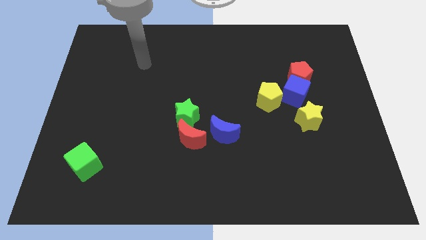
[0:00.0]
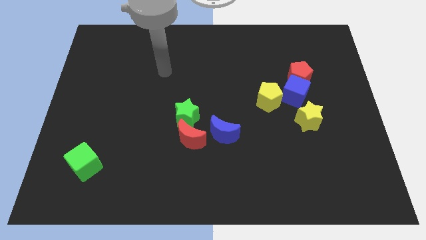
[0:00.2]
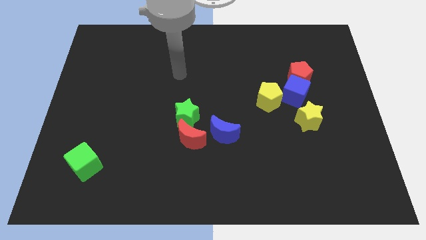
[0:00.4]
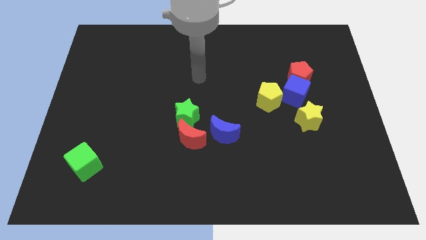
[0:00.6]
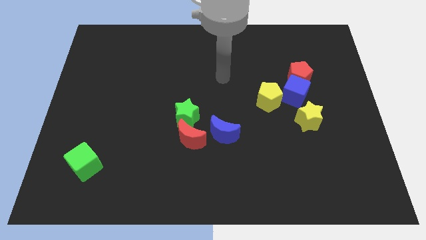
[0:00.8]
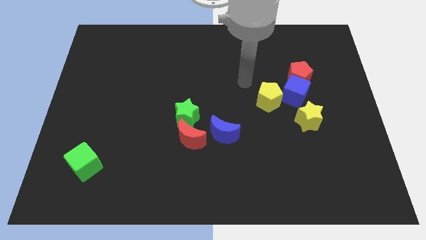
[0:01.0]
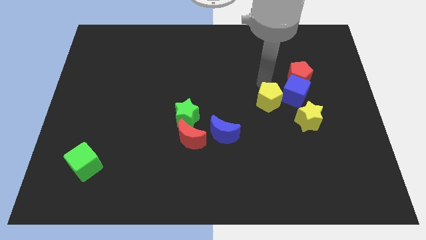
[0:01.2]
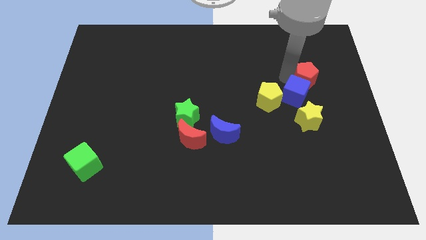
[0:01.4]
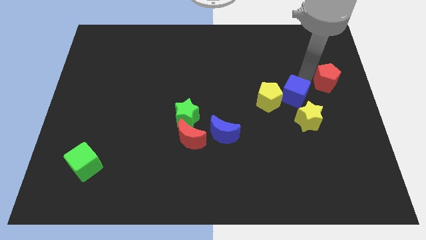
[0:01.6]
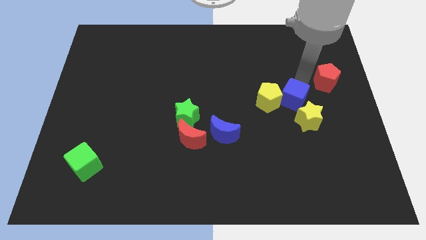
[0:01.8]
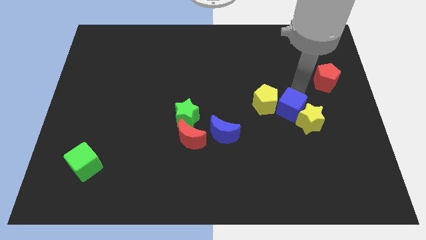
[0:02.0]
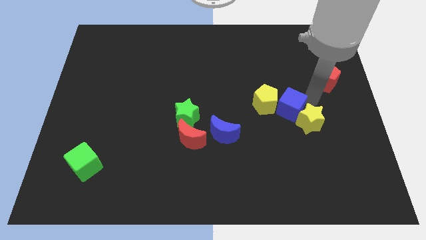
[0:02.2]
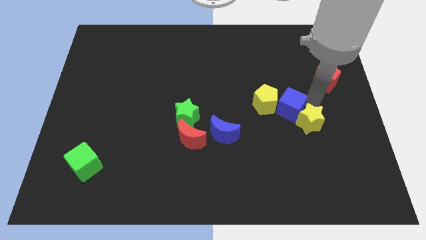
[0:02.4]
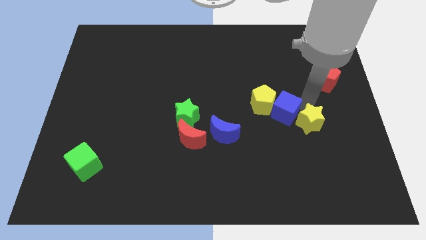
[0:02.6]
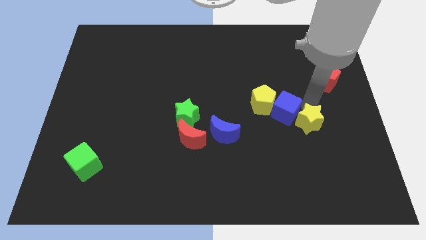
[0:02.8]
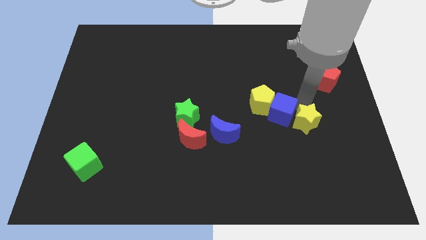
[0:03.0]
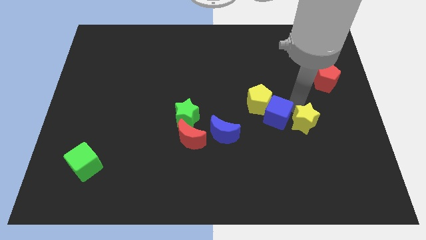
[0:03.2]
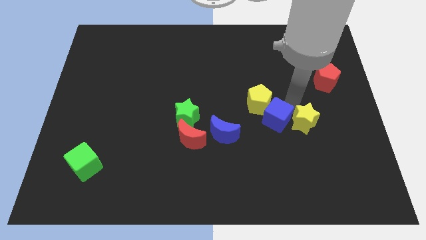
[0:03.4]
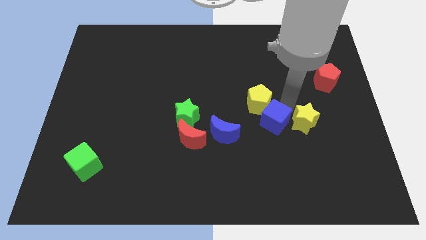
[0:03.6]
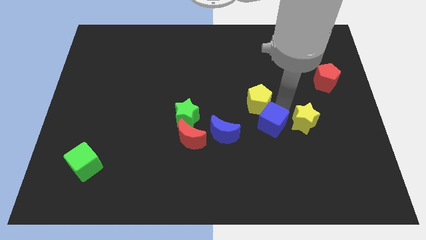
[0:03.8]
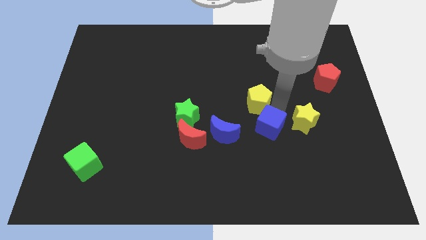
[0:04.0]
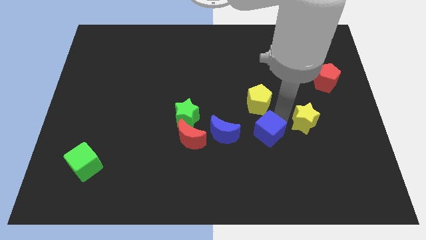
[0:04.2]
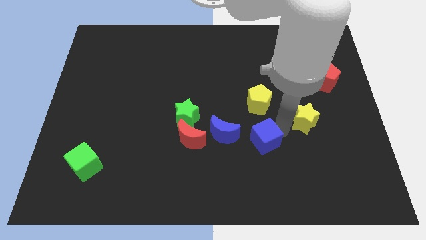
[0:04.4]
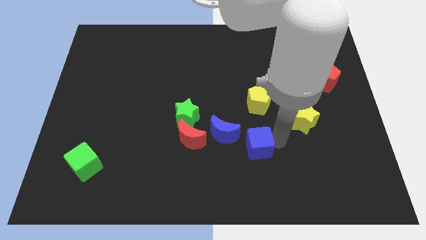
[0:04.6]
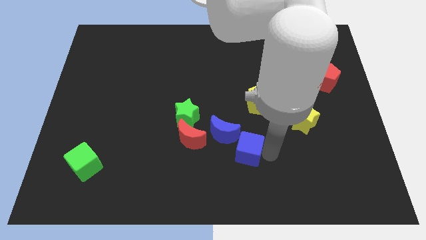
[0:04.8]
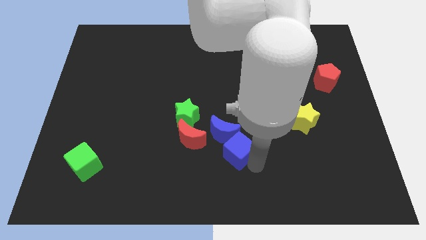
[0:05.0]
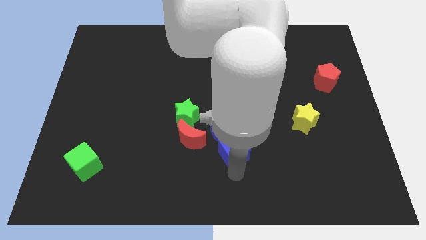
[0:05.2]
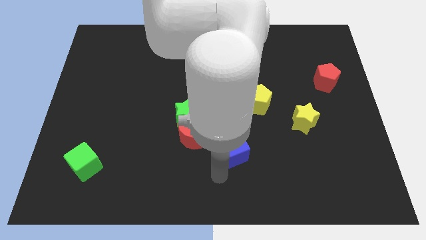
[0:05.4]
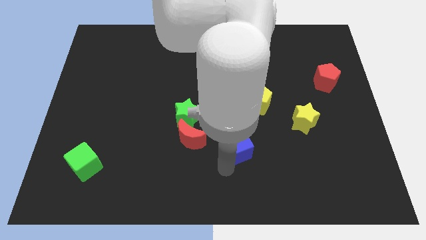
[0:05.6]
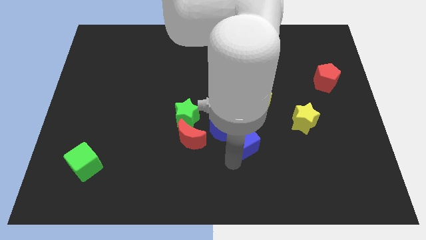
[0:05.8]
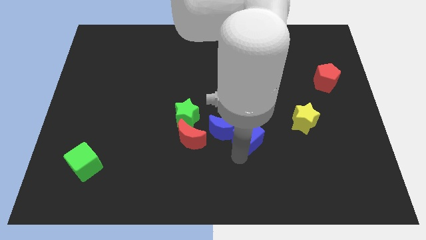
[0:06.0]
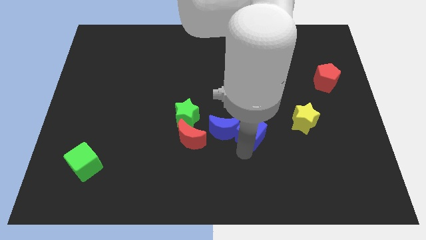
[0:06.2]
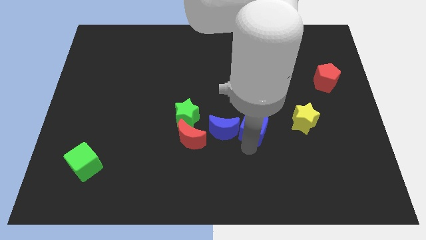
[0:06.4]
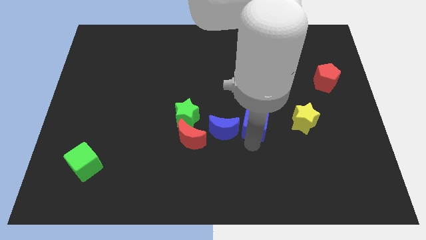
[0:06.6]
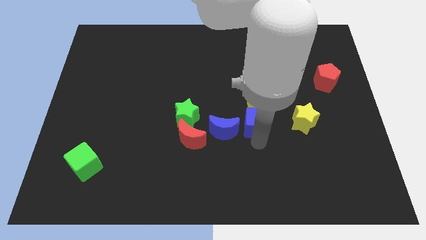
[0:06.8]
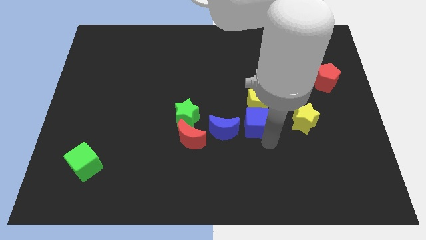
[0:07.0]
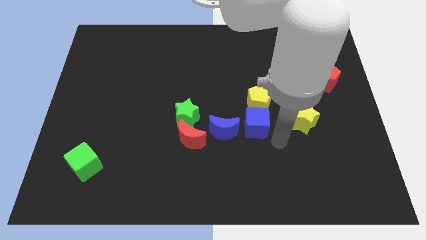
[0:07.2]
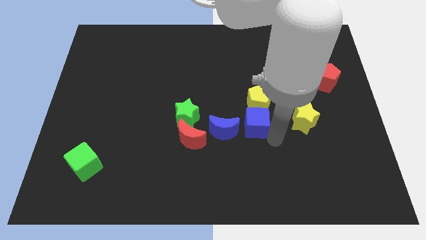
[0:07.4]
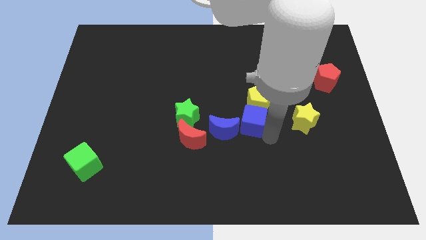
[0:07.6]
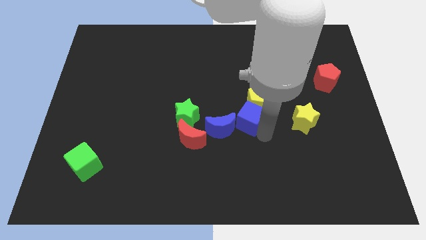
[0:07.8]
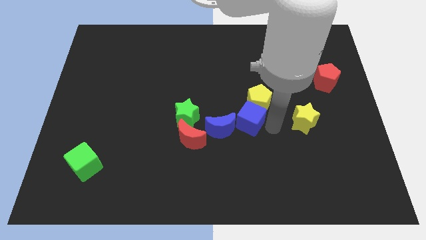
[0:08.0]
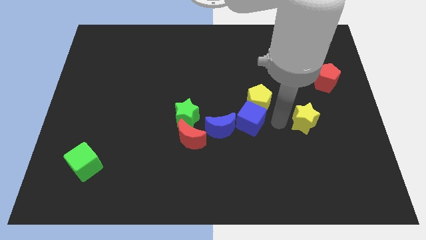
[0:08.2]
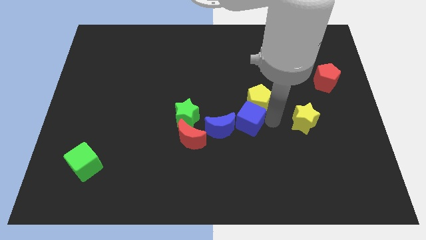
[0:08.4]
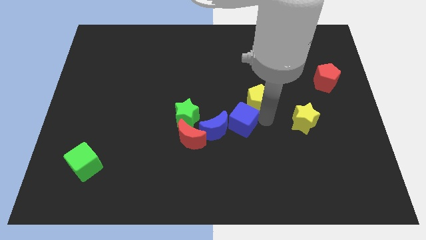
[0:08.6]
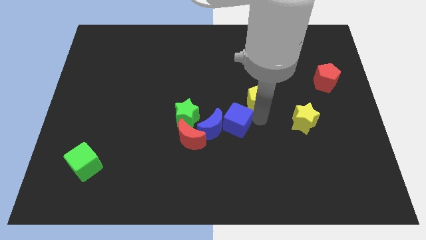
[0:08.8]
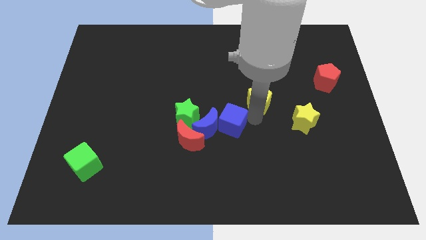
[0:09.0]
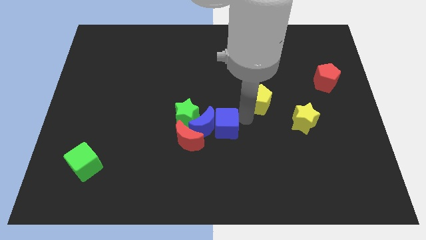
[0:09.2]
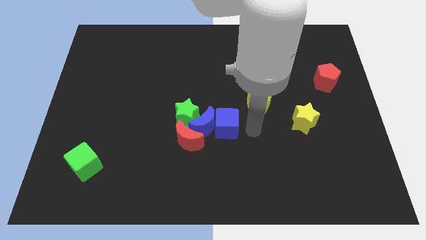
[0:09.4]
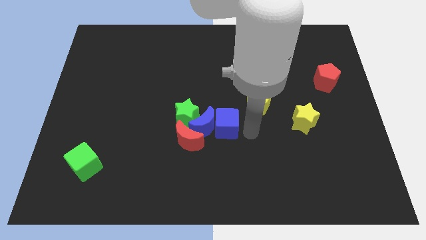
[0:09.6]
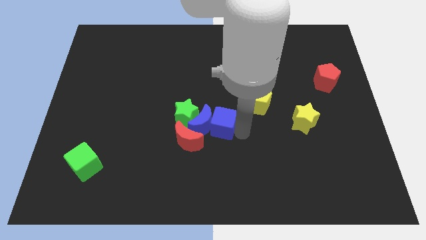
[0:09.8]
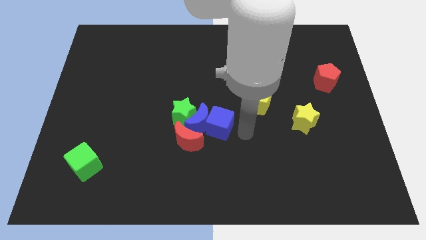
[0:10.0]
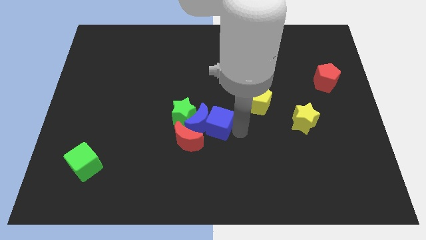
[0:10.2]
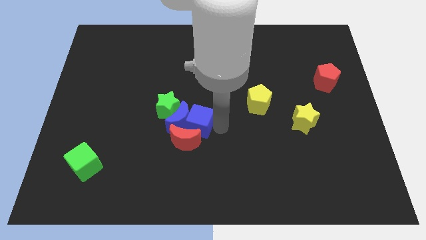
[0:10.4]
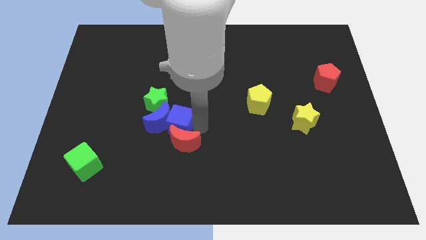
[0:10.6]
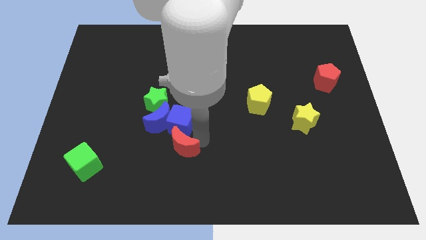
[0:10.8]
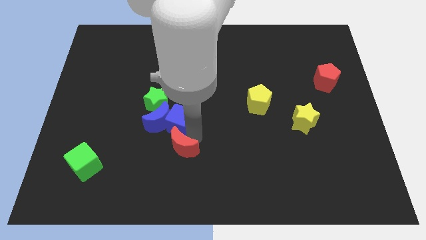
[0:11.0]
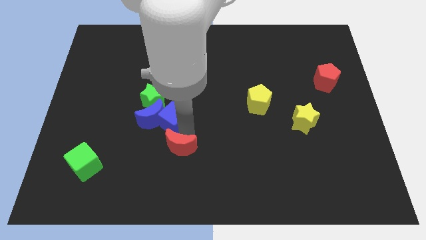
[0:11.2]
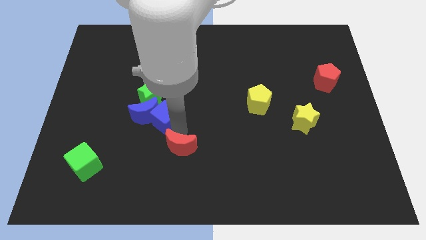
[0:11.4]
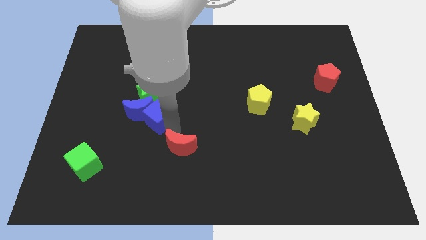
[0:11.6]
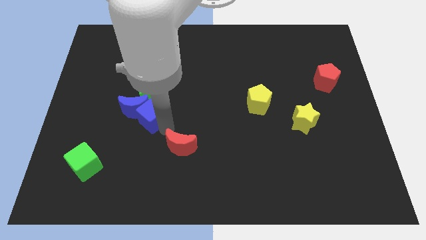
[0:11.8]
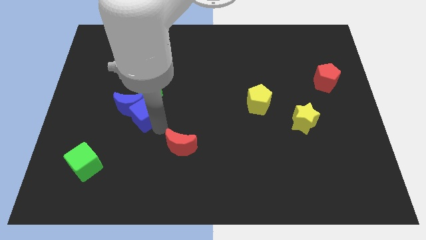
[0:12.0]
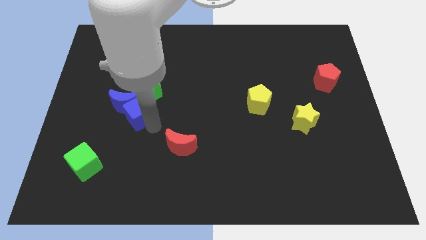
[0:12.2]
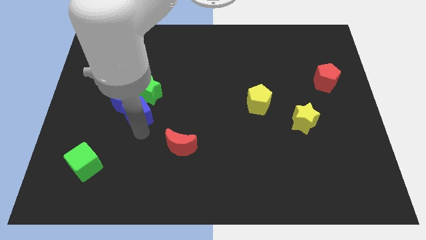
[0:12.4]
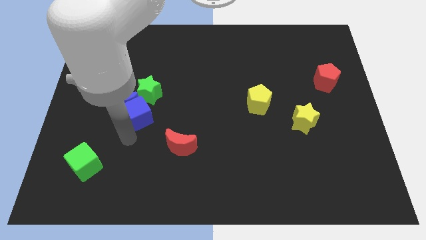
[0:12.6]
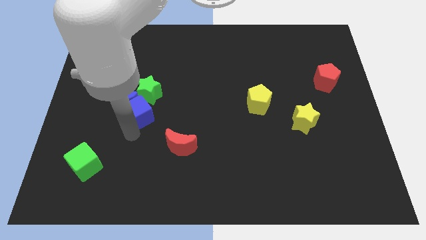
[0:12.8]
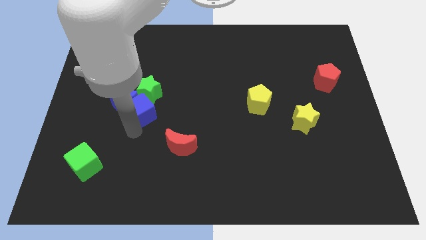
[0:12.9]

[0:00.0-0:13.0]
slide the blue cube next to the green star

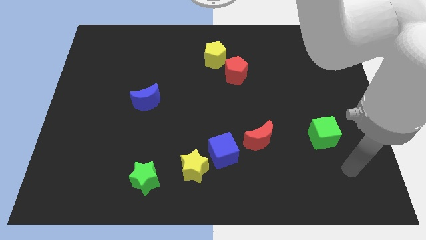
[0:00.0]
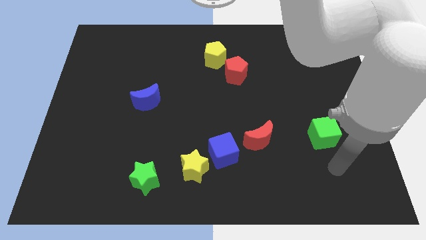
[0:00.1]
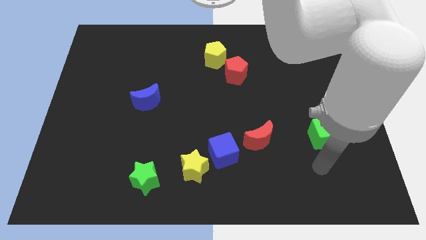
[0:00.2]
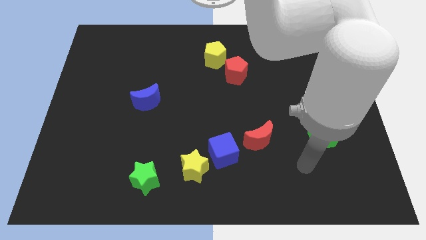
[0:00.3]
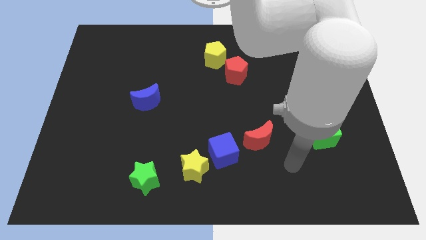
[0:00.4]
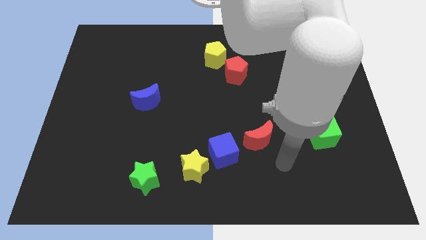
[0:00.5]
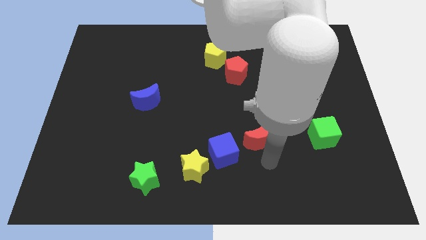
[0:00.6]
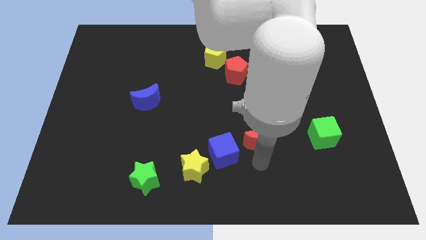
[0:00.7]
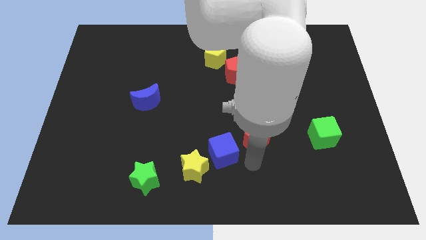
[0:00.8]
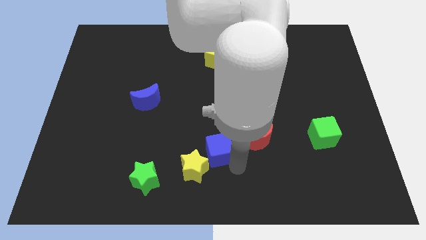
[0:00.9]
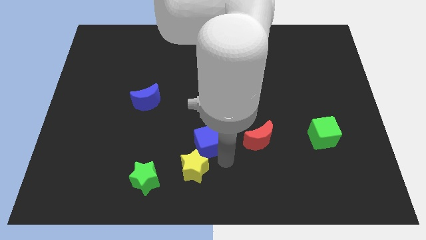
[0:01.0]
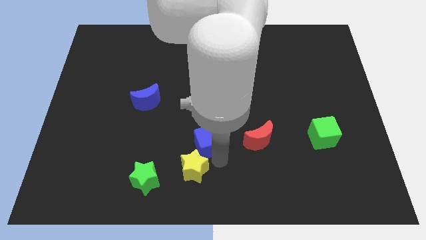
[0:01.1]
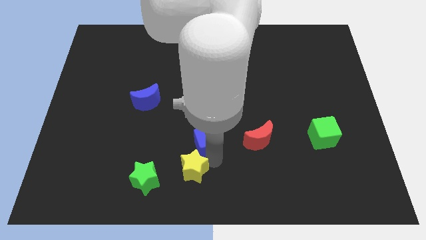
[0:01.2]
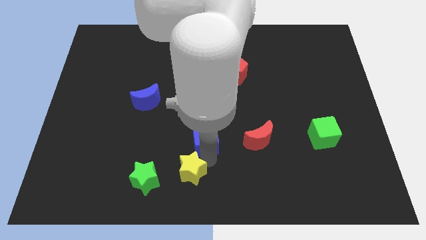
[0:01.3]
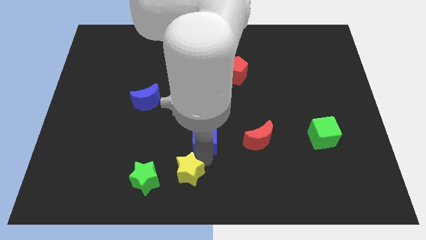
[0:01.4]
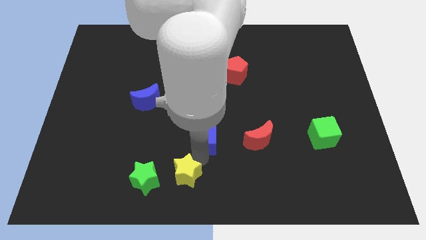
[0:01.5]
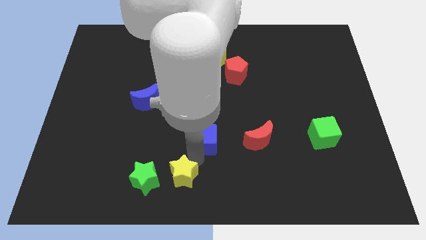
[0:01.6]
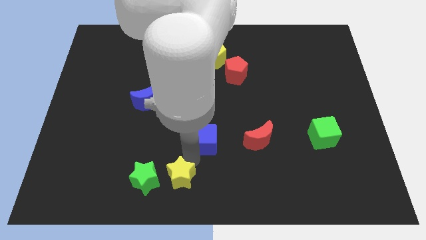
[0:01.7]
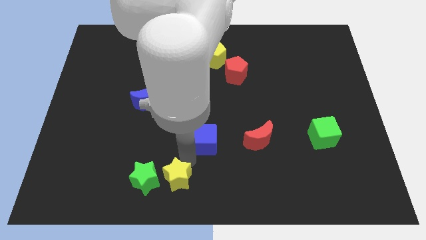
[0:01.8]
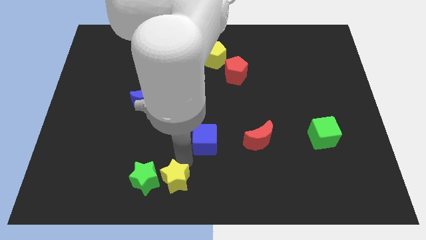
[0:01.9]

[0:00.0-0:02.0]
push the yellow star towards the green star
